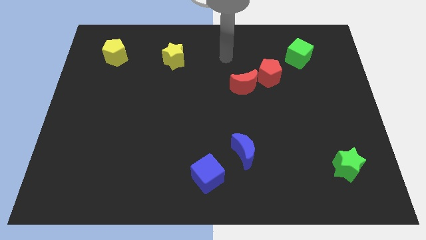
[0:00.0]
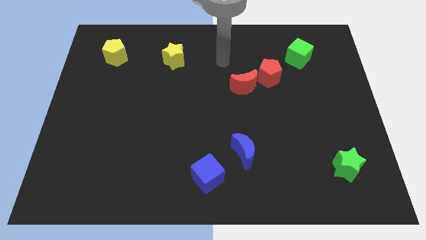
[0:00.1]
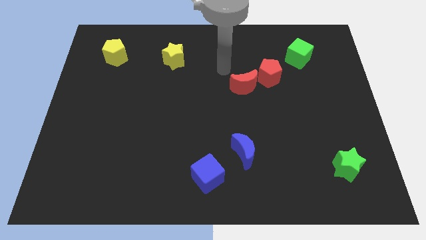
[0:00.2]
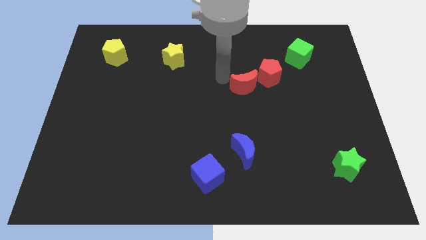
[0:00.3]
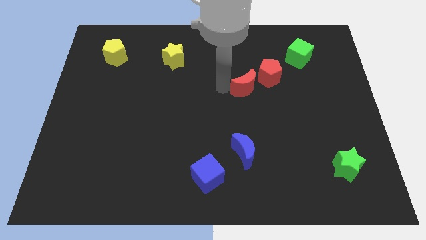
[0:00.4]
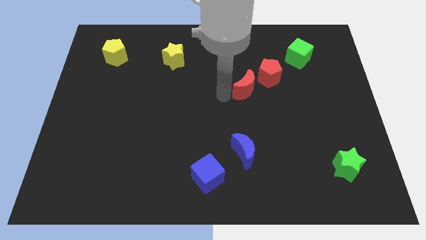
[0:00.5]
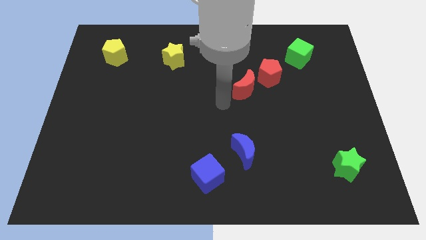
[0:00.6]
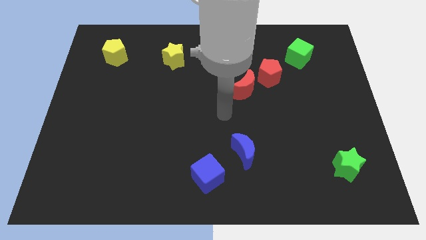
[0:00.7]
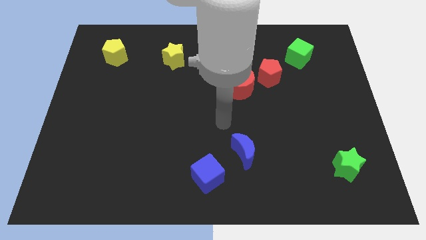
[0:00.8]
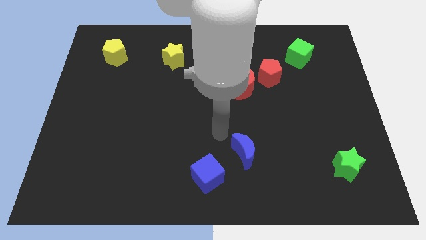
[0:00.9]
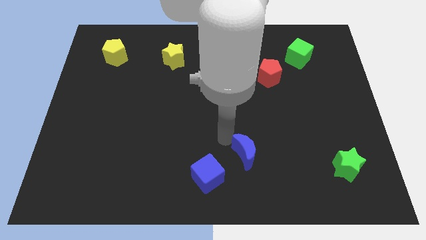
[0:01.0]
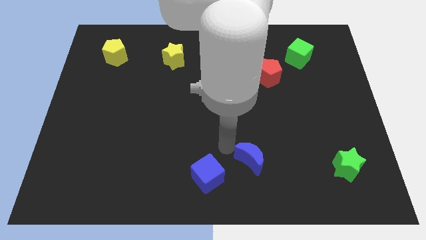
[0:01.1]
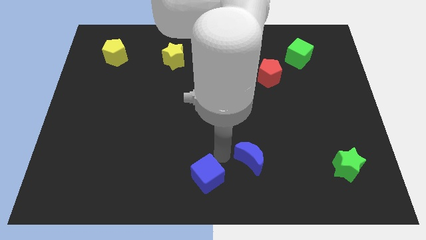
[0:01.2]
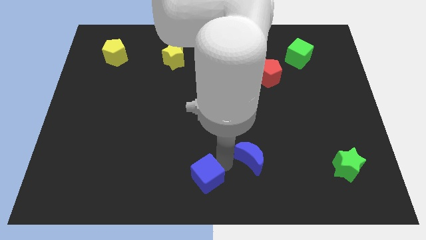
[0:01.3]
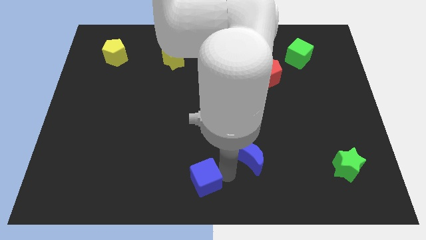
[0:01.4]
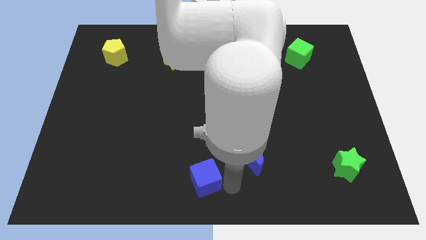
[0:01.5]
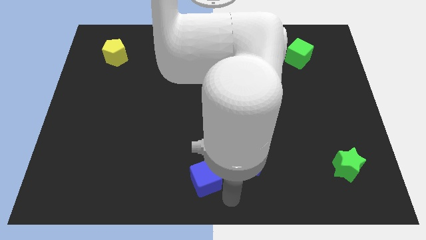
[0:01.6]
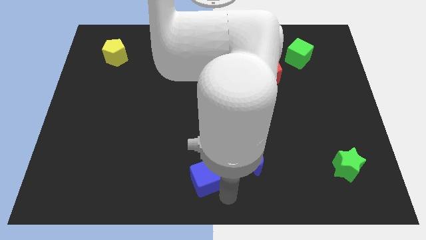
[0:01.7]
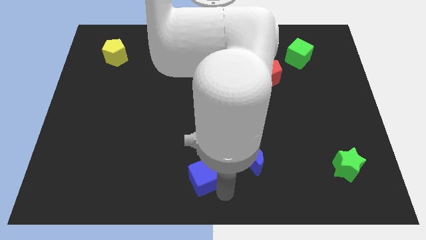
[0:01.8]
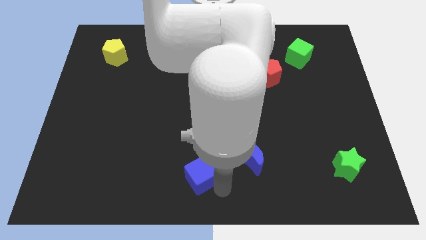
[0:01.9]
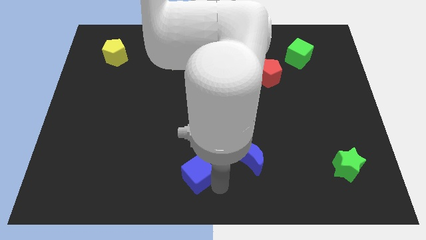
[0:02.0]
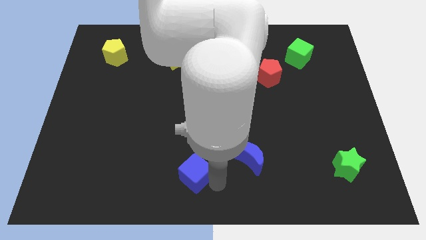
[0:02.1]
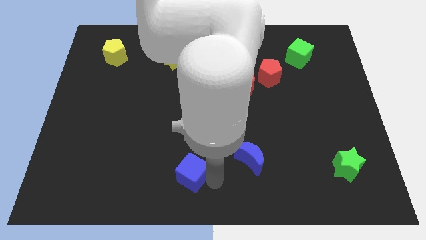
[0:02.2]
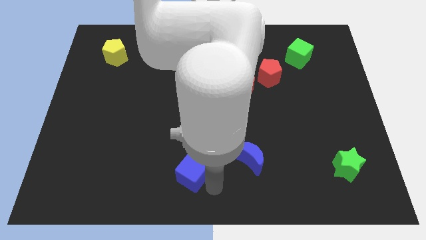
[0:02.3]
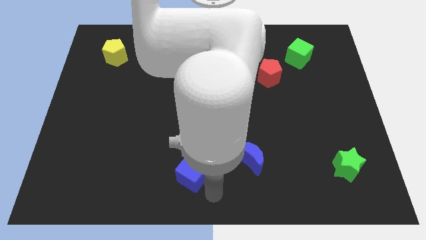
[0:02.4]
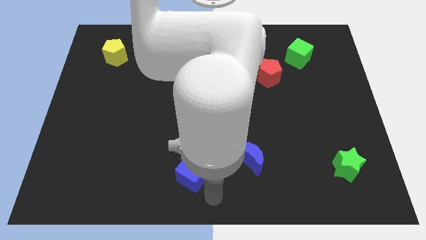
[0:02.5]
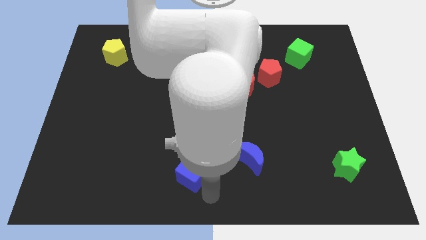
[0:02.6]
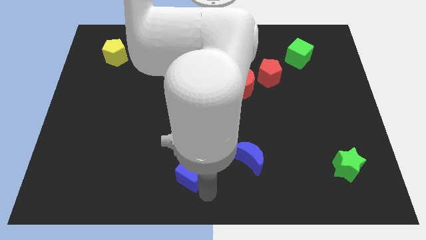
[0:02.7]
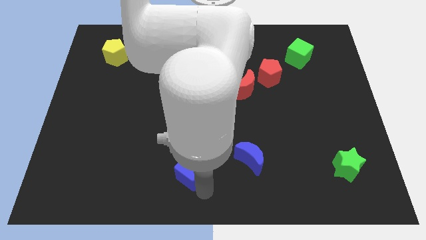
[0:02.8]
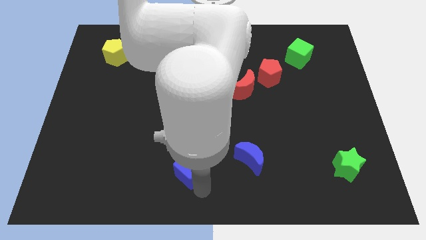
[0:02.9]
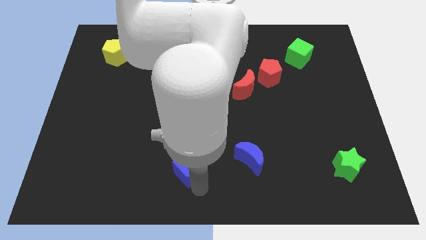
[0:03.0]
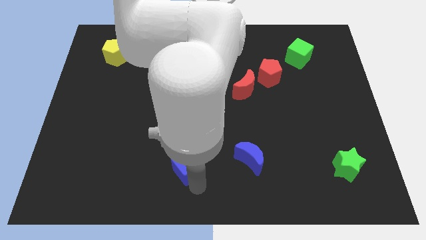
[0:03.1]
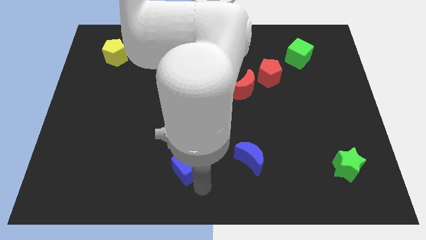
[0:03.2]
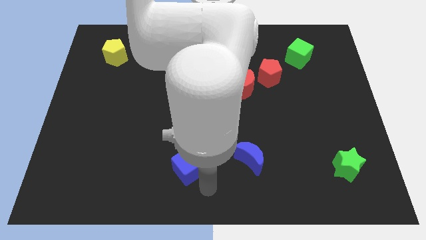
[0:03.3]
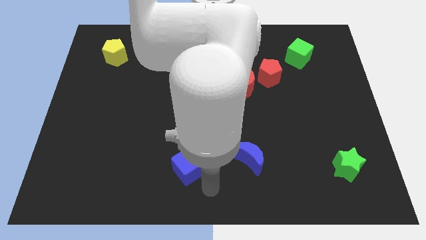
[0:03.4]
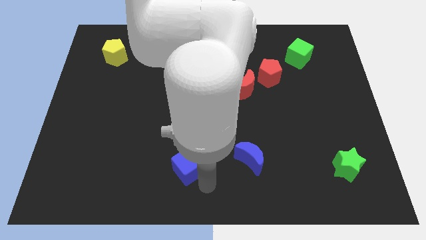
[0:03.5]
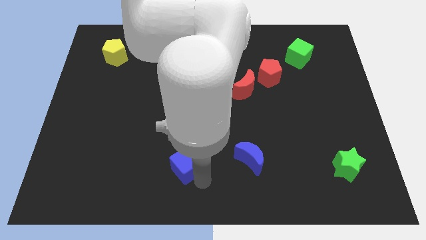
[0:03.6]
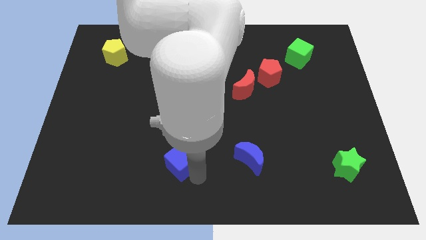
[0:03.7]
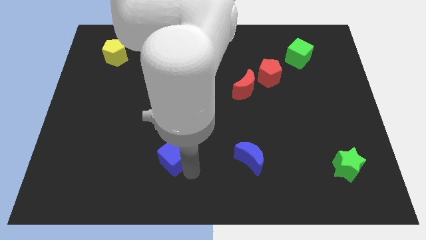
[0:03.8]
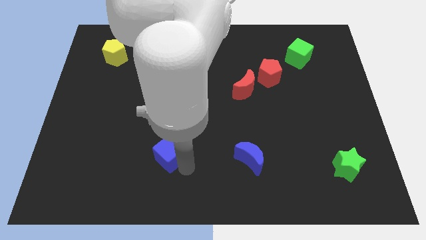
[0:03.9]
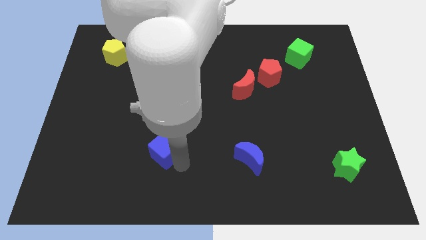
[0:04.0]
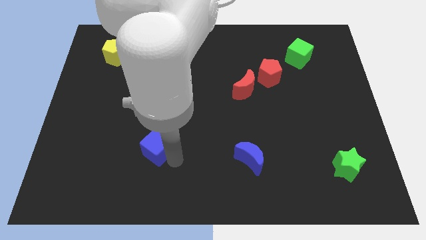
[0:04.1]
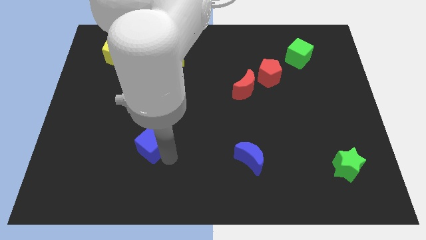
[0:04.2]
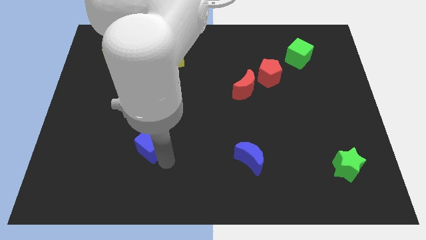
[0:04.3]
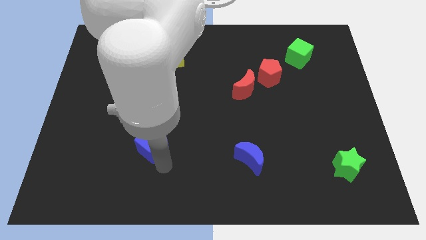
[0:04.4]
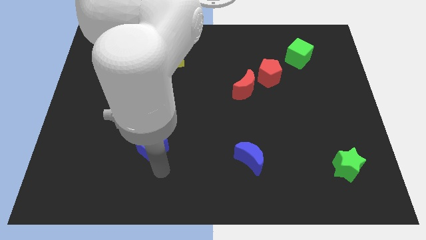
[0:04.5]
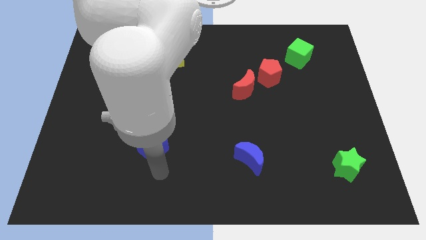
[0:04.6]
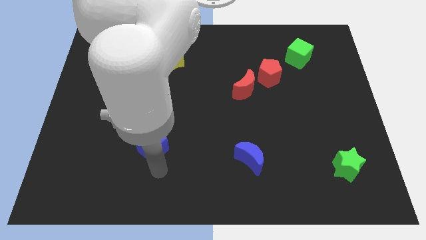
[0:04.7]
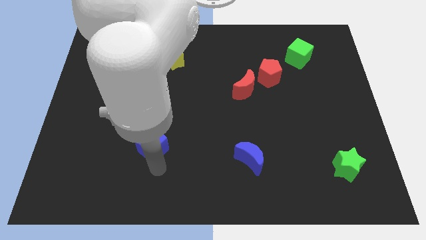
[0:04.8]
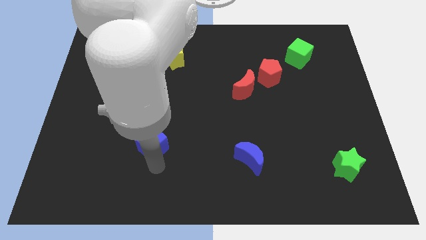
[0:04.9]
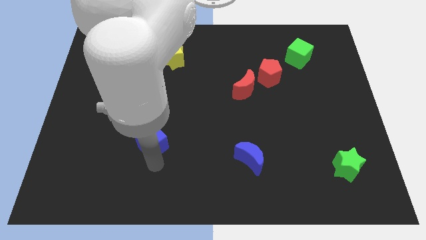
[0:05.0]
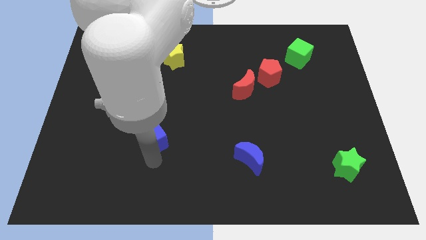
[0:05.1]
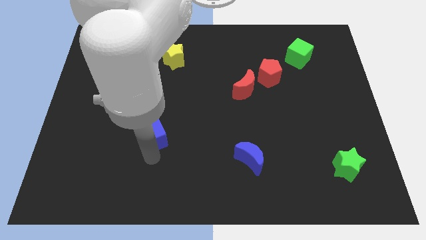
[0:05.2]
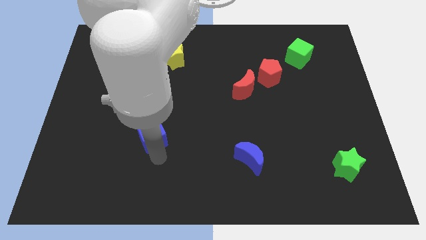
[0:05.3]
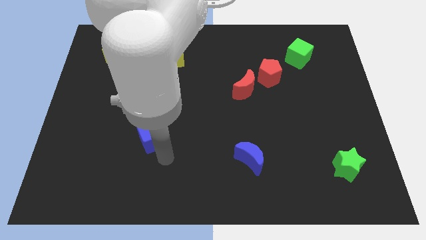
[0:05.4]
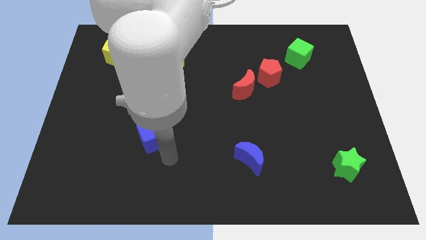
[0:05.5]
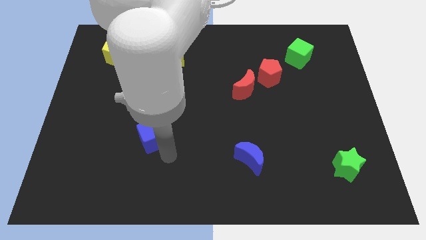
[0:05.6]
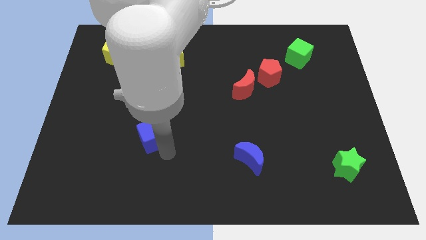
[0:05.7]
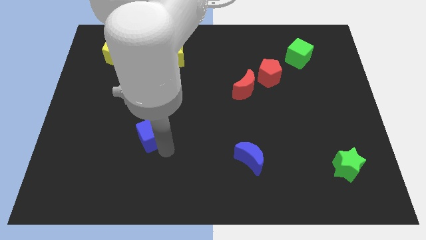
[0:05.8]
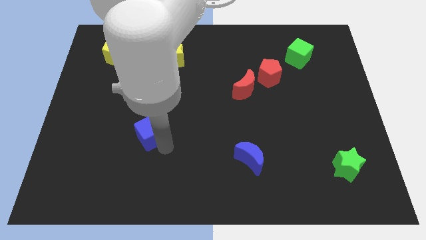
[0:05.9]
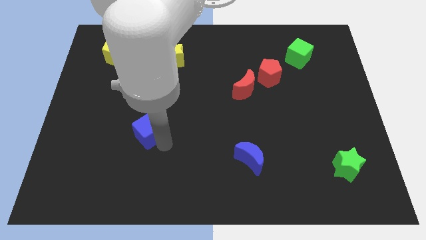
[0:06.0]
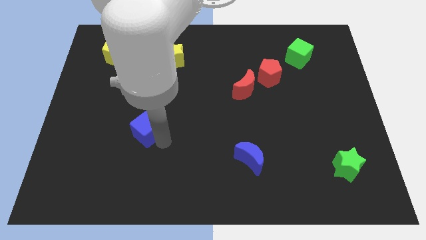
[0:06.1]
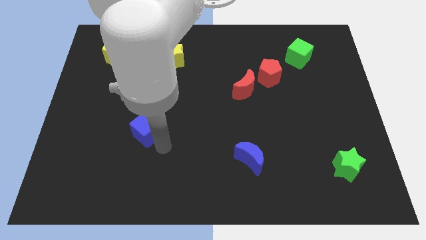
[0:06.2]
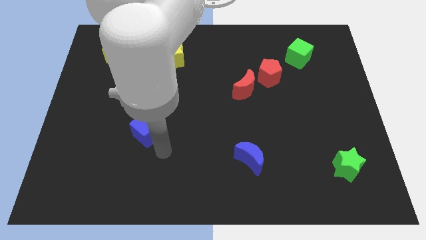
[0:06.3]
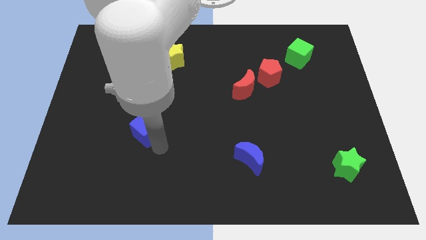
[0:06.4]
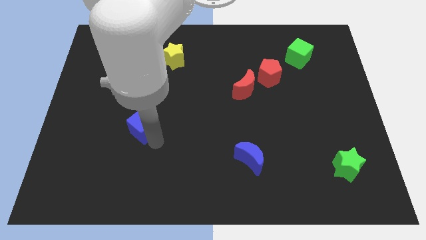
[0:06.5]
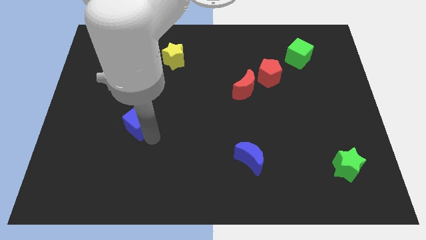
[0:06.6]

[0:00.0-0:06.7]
move the blue cube diagonally upwards and left

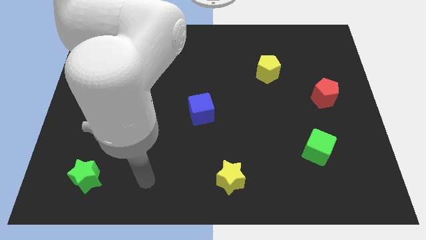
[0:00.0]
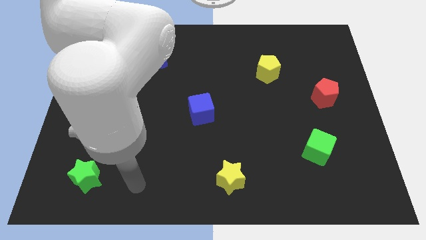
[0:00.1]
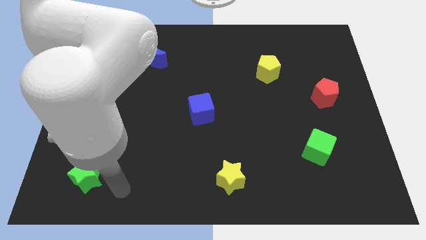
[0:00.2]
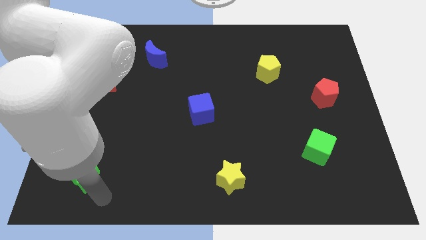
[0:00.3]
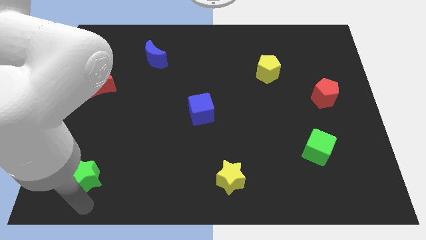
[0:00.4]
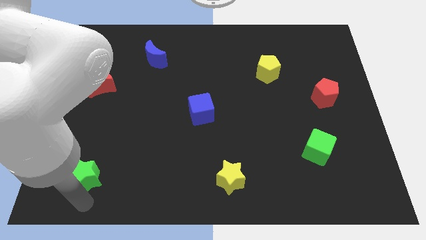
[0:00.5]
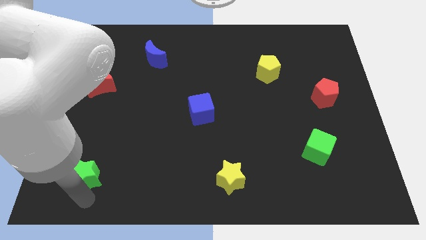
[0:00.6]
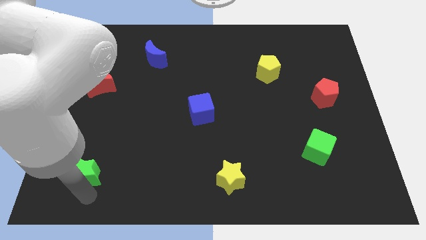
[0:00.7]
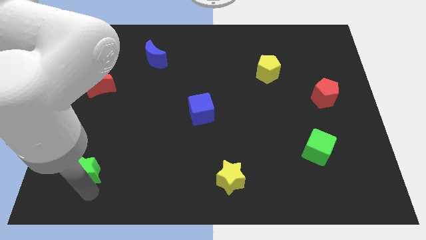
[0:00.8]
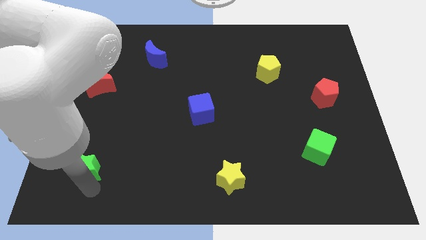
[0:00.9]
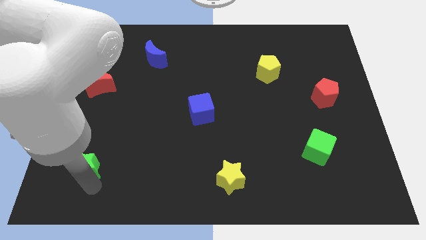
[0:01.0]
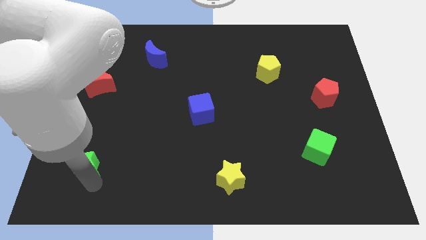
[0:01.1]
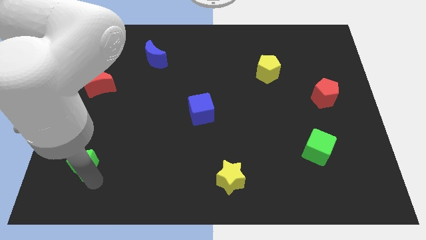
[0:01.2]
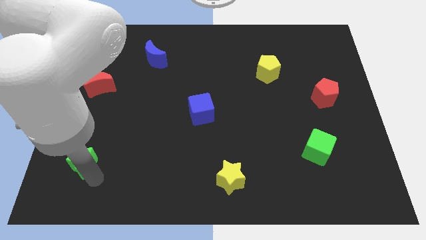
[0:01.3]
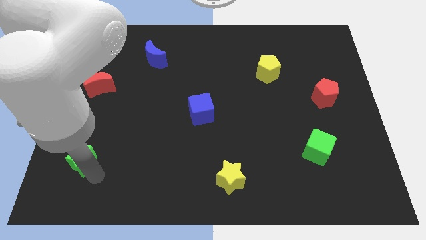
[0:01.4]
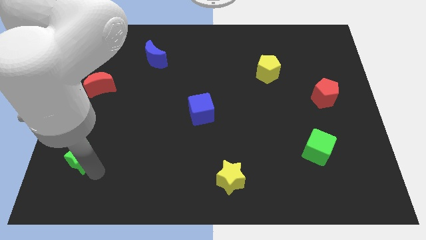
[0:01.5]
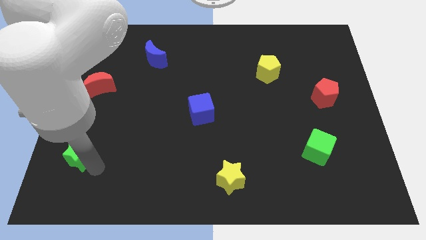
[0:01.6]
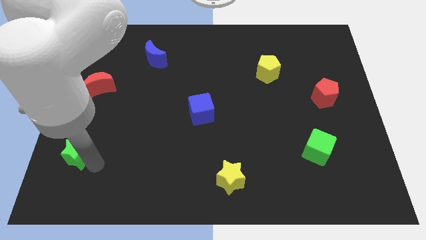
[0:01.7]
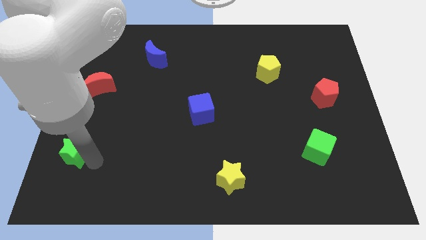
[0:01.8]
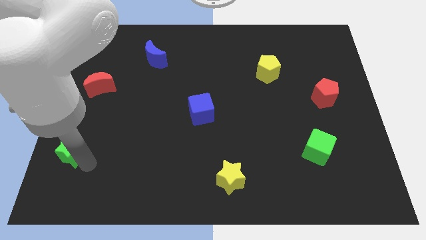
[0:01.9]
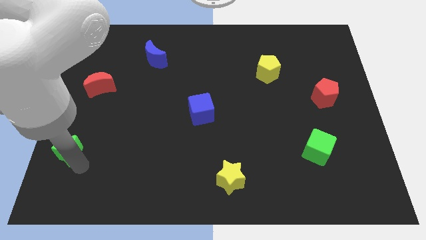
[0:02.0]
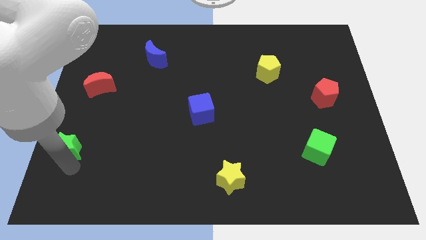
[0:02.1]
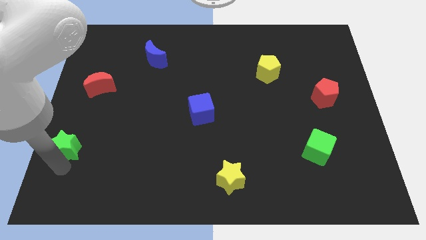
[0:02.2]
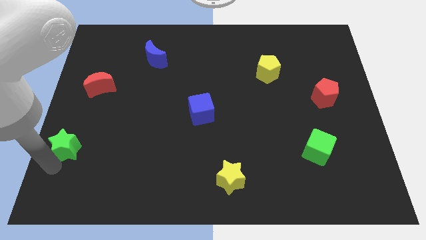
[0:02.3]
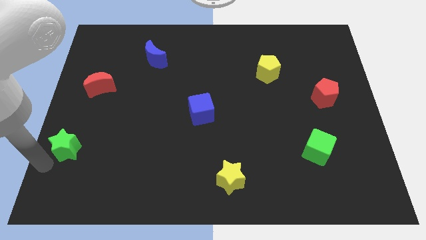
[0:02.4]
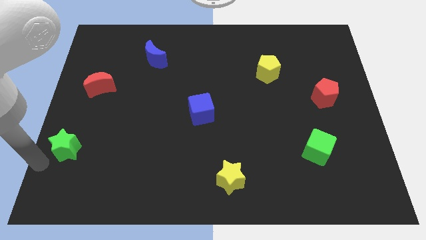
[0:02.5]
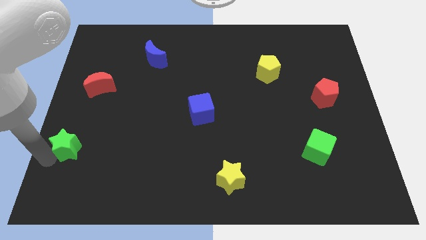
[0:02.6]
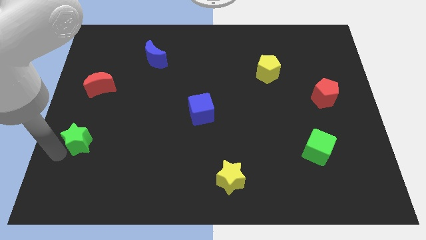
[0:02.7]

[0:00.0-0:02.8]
slide the green star a bit upwards
